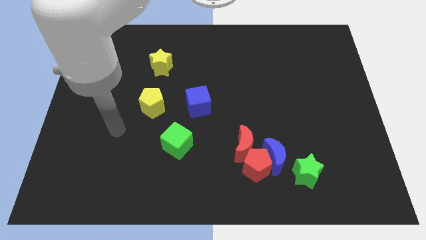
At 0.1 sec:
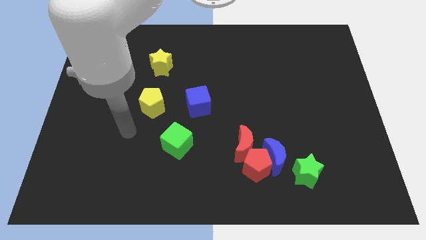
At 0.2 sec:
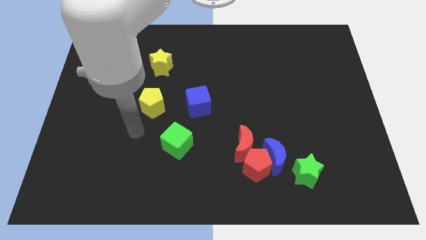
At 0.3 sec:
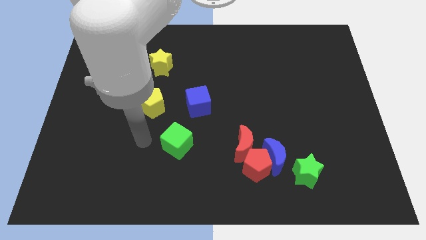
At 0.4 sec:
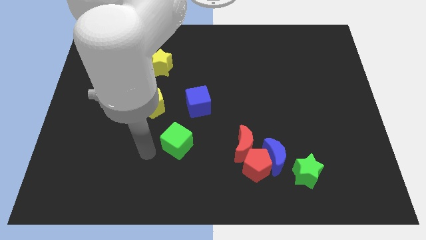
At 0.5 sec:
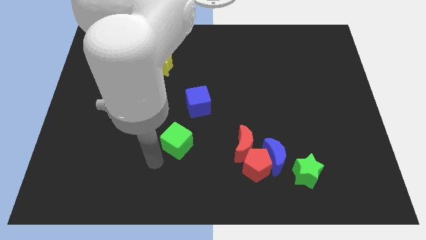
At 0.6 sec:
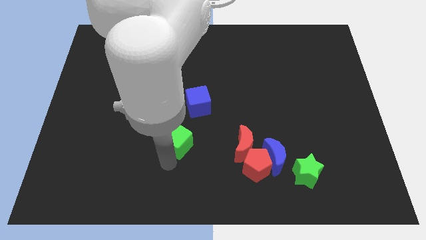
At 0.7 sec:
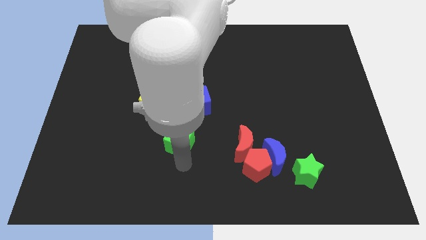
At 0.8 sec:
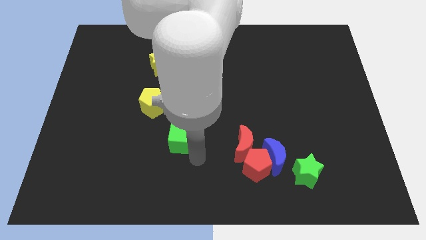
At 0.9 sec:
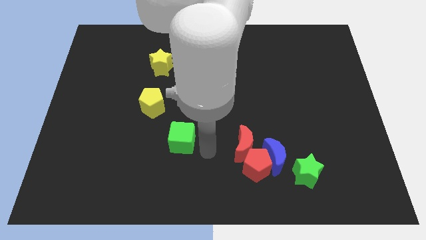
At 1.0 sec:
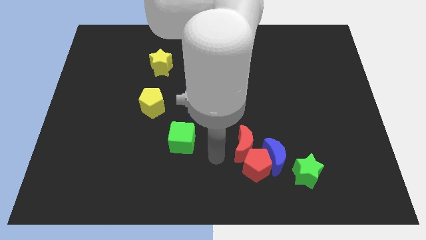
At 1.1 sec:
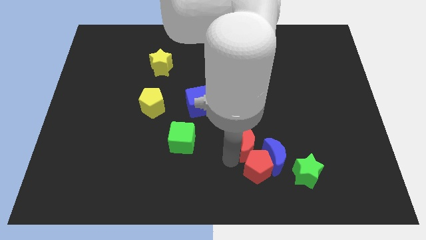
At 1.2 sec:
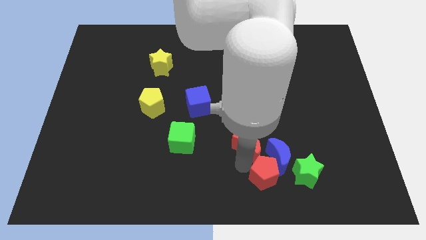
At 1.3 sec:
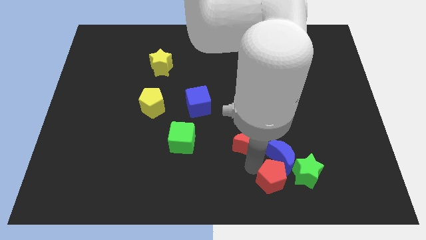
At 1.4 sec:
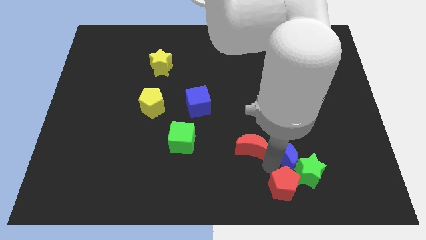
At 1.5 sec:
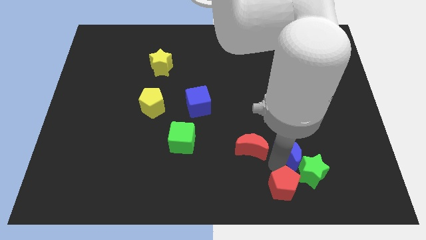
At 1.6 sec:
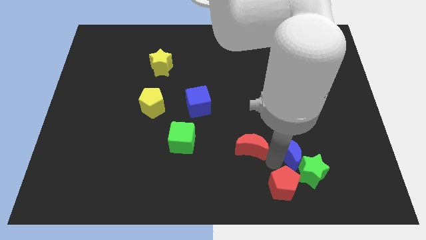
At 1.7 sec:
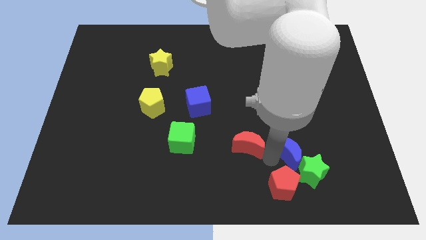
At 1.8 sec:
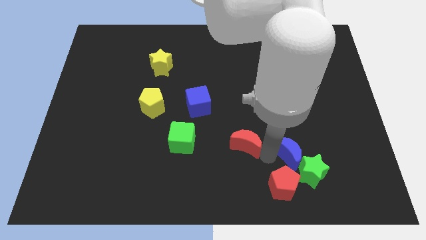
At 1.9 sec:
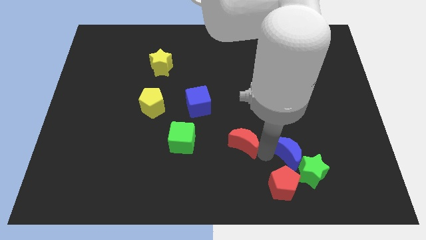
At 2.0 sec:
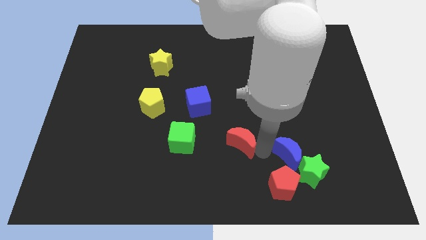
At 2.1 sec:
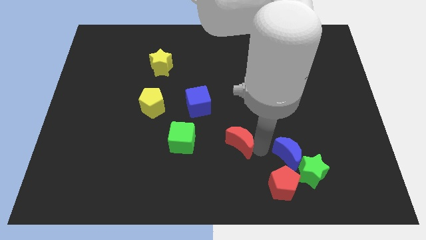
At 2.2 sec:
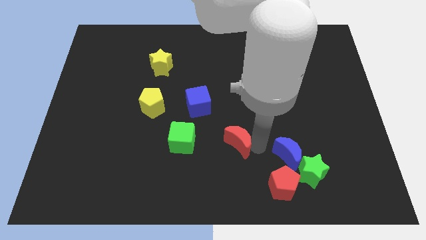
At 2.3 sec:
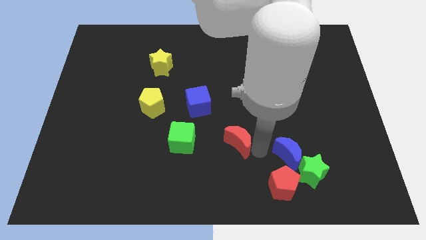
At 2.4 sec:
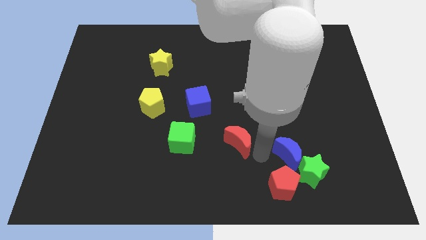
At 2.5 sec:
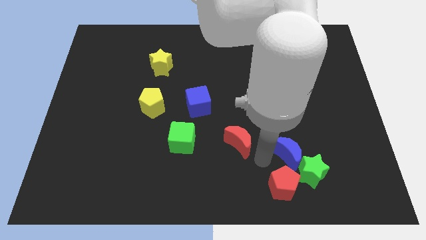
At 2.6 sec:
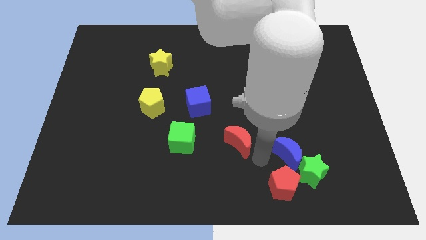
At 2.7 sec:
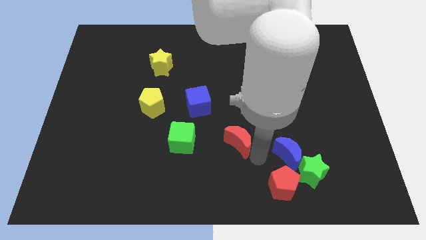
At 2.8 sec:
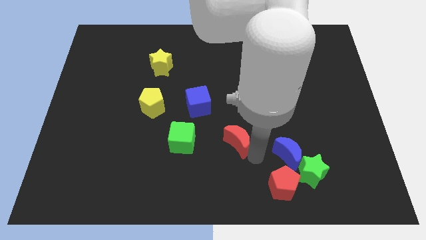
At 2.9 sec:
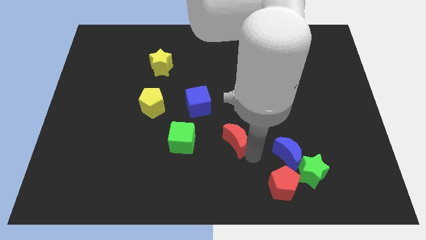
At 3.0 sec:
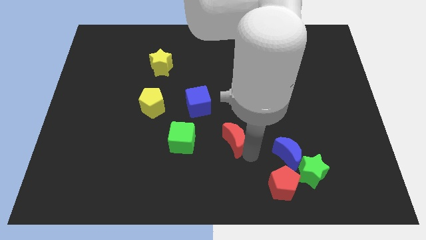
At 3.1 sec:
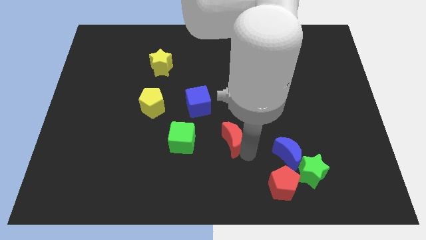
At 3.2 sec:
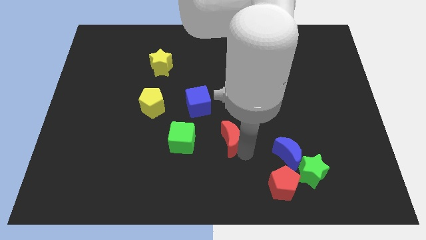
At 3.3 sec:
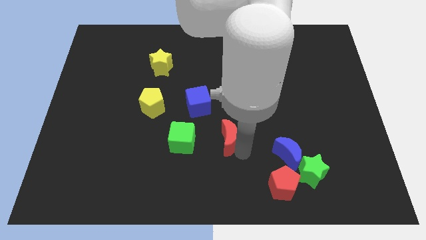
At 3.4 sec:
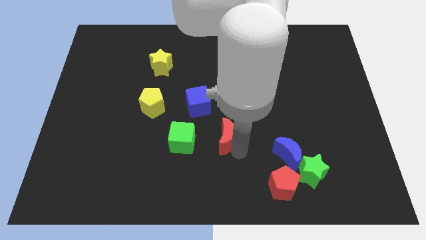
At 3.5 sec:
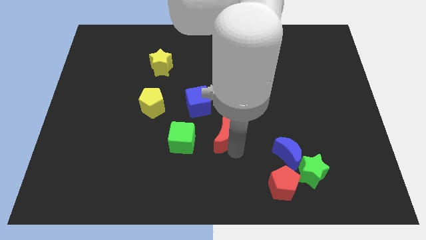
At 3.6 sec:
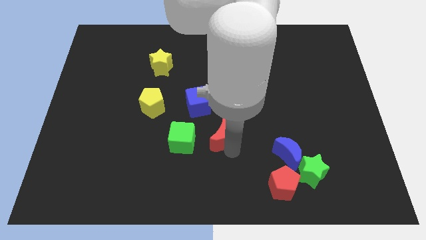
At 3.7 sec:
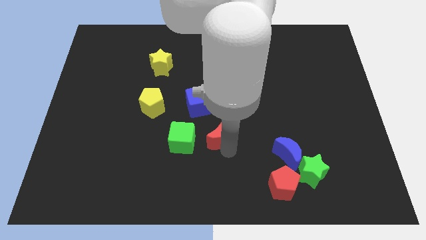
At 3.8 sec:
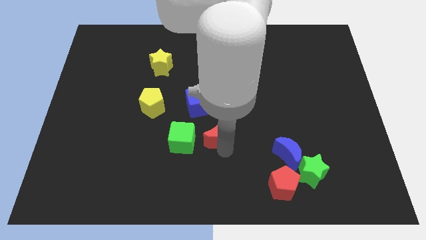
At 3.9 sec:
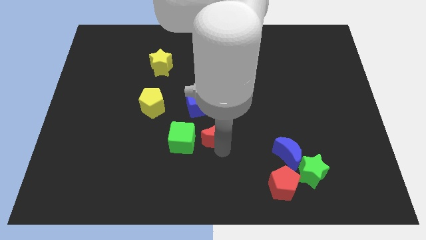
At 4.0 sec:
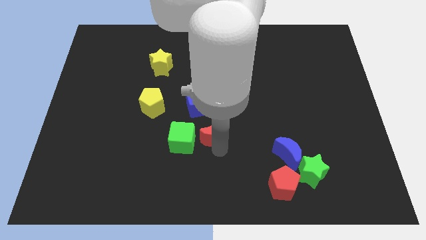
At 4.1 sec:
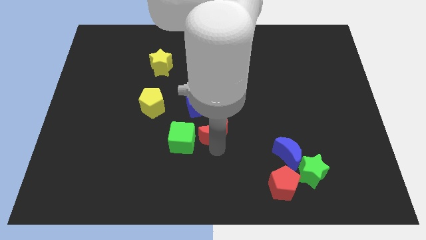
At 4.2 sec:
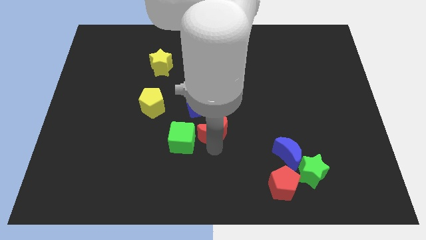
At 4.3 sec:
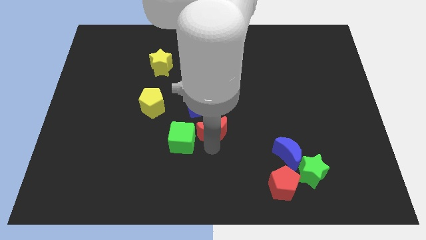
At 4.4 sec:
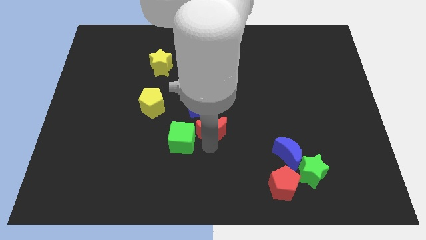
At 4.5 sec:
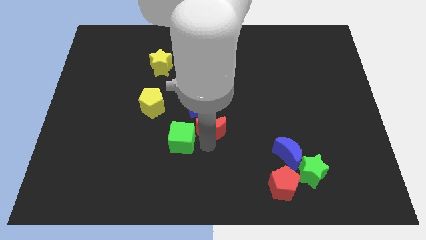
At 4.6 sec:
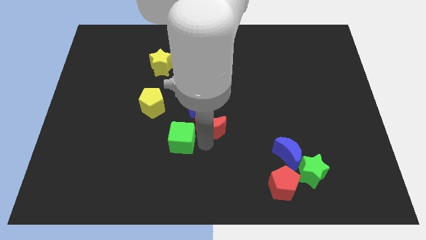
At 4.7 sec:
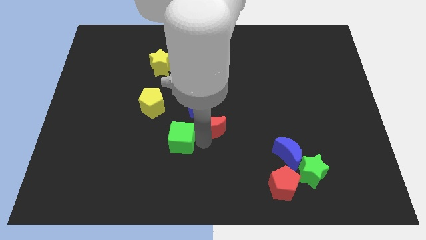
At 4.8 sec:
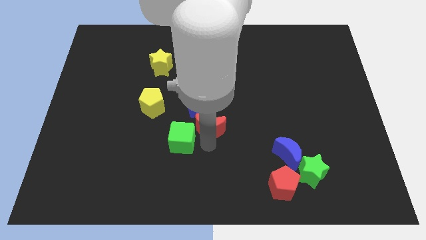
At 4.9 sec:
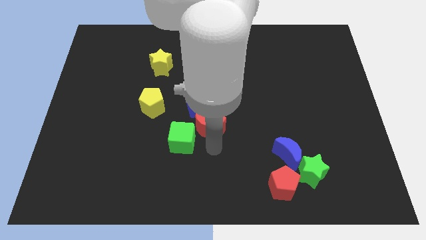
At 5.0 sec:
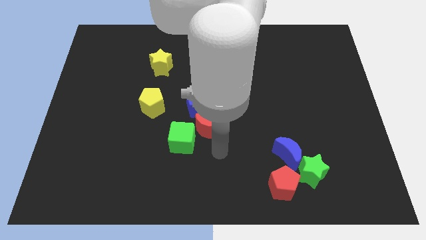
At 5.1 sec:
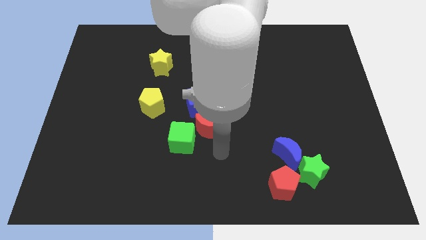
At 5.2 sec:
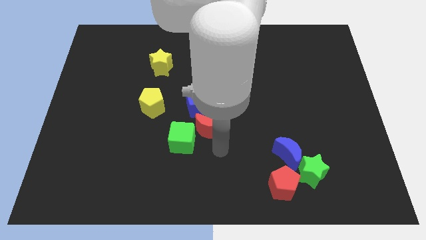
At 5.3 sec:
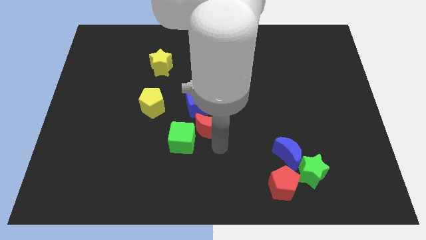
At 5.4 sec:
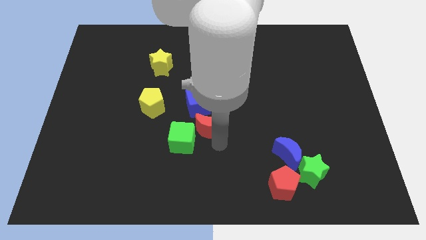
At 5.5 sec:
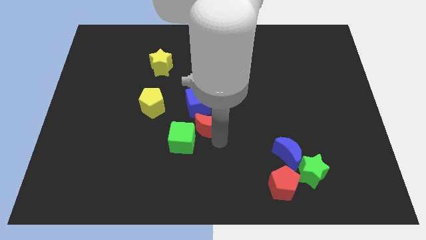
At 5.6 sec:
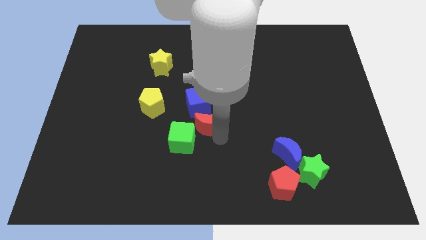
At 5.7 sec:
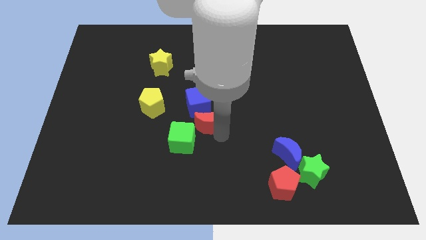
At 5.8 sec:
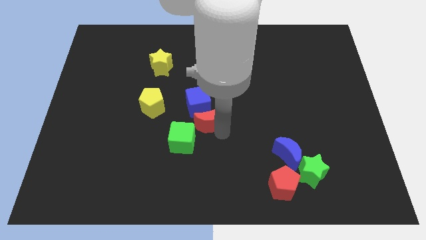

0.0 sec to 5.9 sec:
move the red moon next to the blue cube

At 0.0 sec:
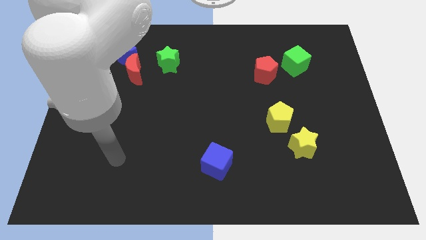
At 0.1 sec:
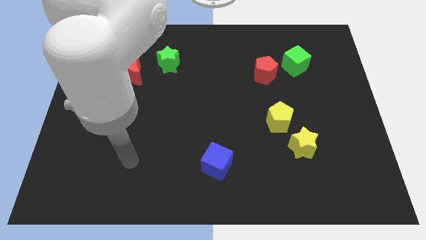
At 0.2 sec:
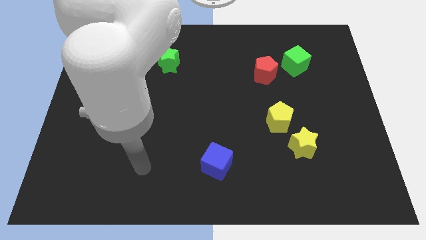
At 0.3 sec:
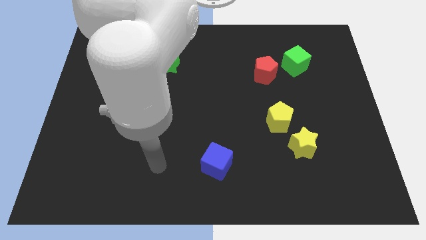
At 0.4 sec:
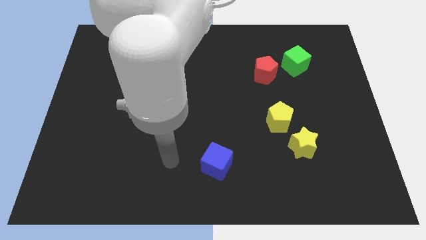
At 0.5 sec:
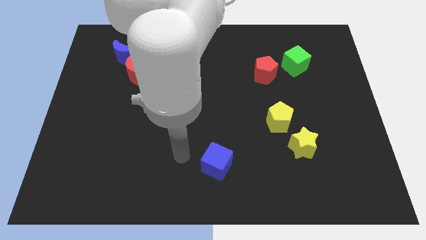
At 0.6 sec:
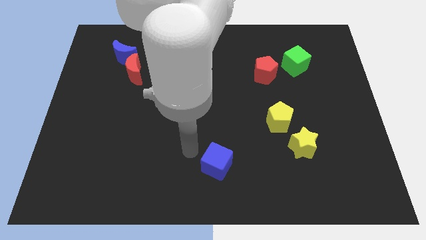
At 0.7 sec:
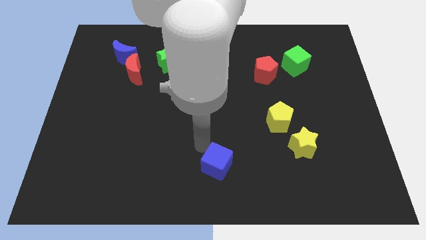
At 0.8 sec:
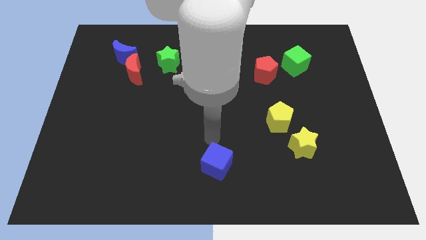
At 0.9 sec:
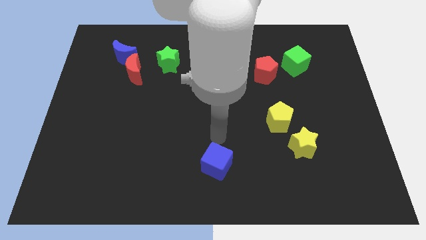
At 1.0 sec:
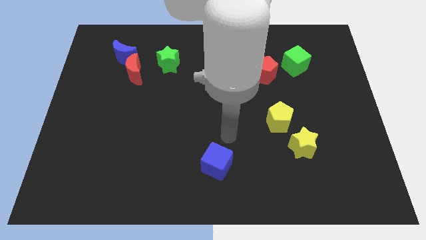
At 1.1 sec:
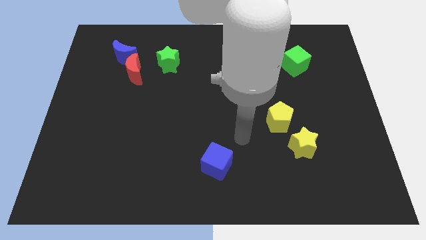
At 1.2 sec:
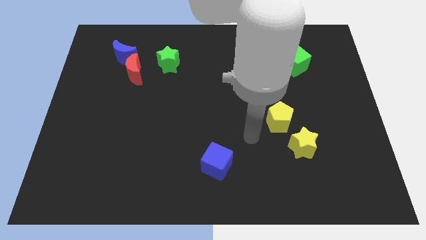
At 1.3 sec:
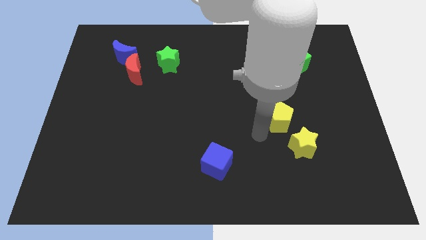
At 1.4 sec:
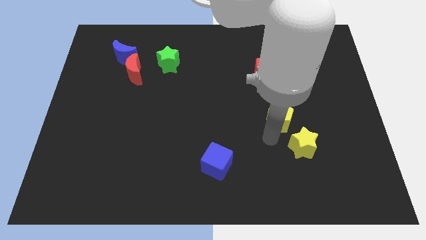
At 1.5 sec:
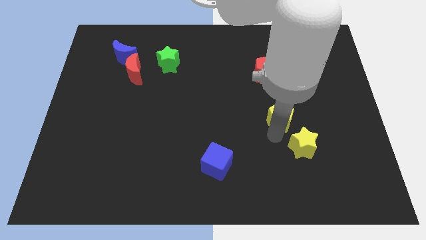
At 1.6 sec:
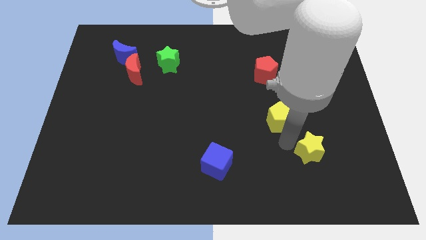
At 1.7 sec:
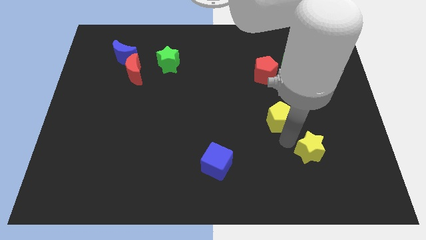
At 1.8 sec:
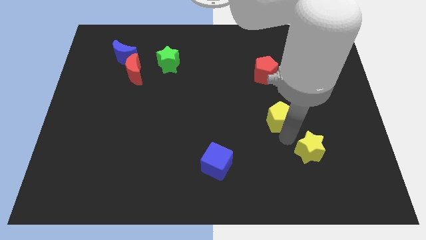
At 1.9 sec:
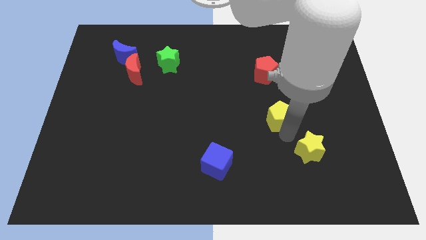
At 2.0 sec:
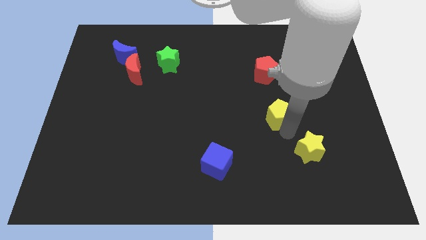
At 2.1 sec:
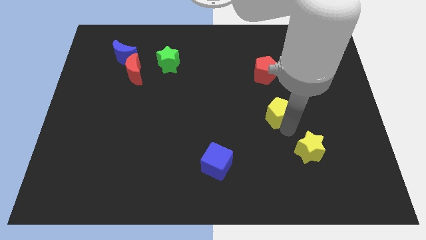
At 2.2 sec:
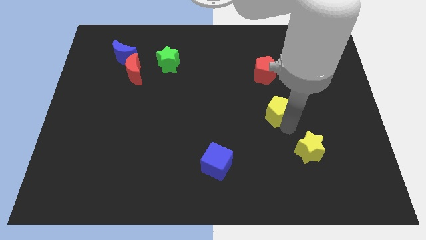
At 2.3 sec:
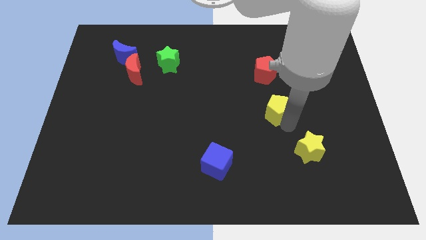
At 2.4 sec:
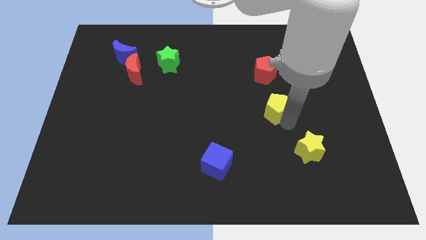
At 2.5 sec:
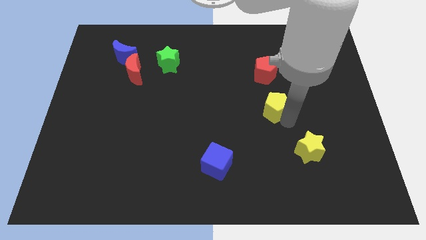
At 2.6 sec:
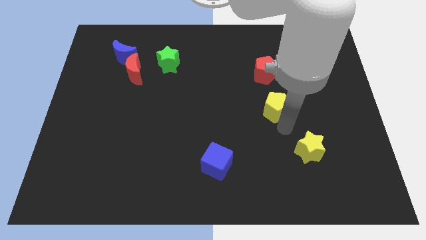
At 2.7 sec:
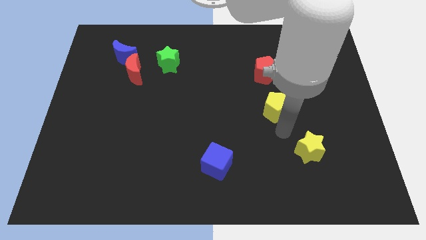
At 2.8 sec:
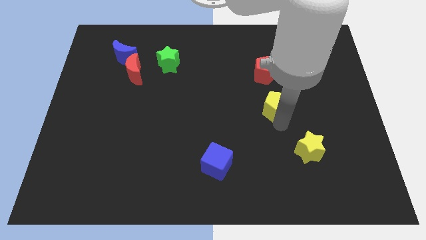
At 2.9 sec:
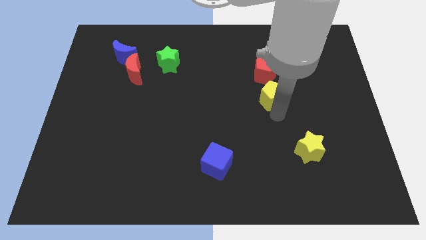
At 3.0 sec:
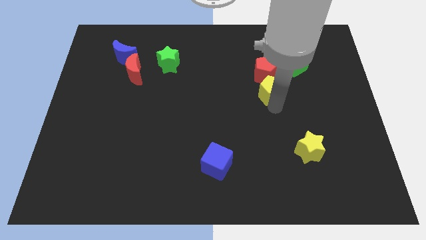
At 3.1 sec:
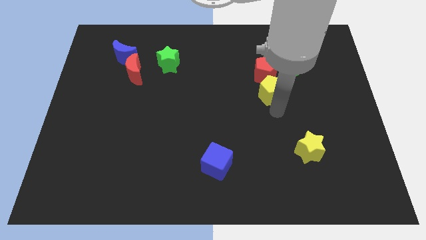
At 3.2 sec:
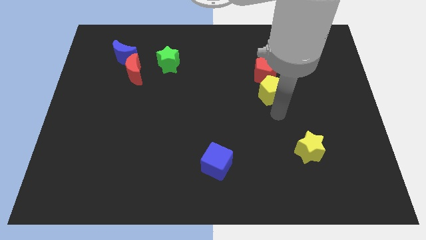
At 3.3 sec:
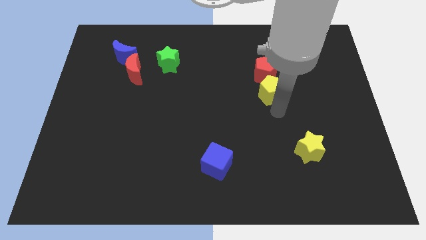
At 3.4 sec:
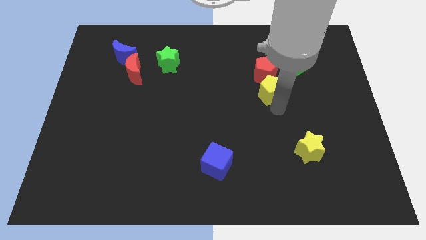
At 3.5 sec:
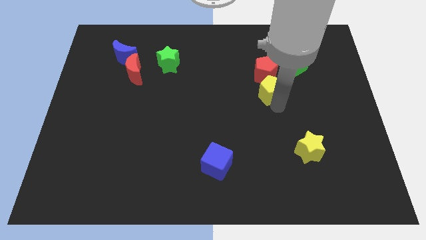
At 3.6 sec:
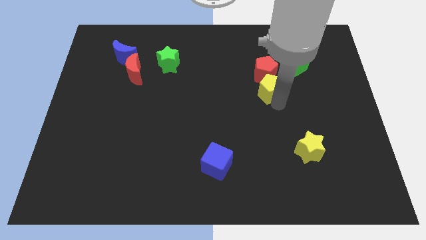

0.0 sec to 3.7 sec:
put the yellow pentagon towards the red pentagon
